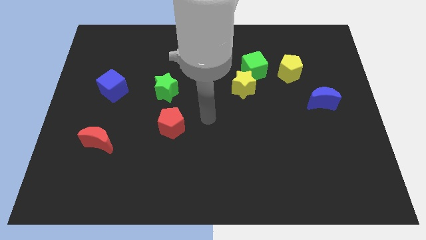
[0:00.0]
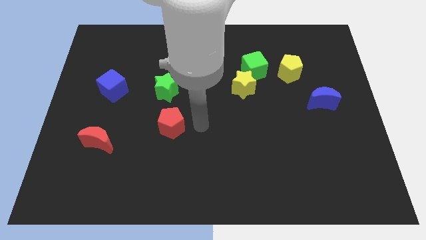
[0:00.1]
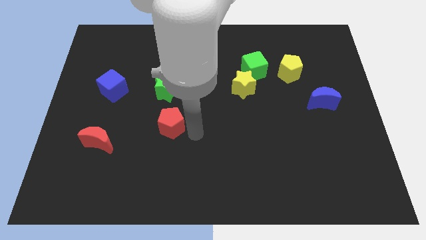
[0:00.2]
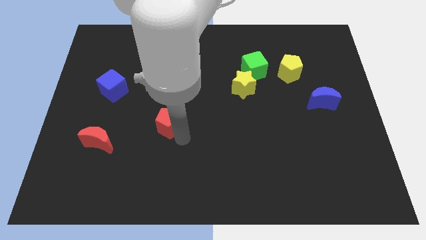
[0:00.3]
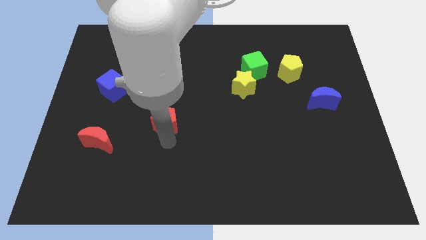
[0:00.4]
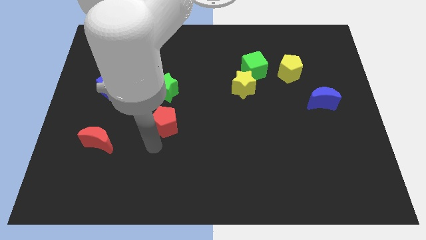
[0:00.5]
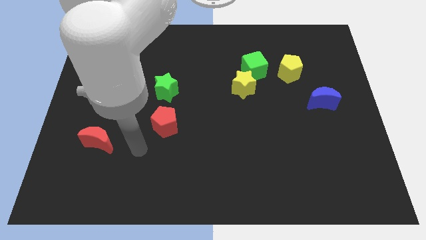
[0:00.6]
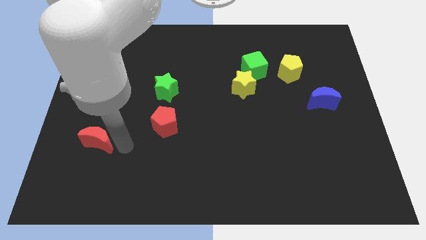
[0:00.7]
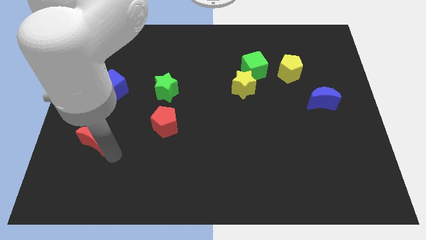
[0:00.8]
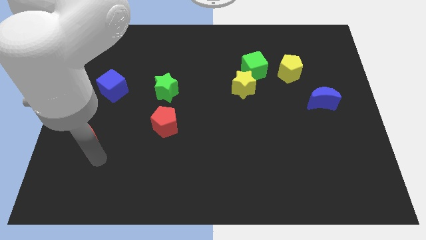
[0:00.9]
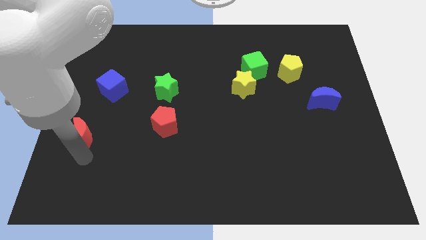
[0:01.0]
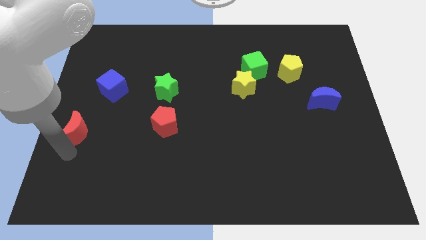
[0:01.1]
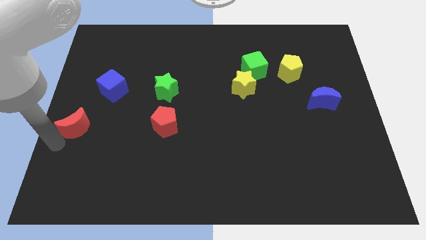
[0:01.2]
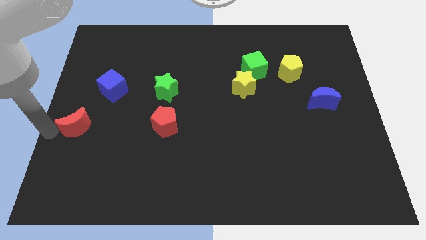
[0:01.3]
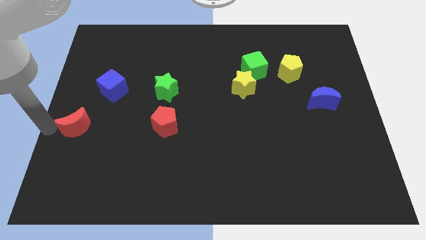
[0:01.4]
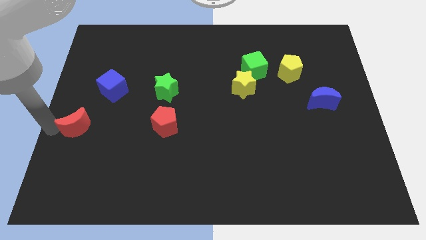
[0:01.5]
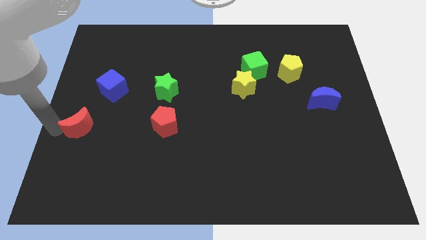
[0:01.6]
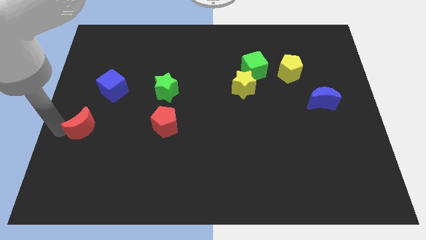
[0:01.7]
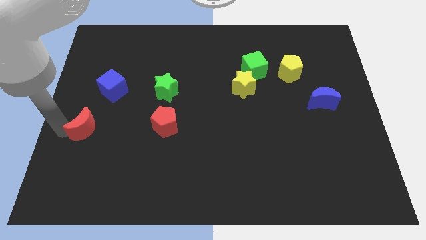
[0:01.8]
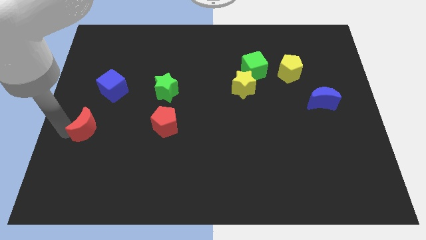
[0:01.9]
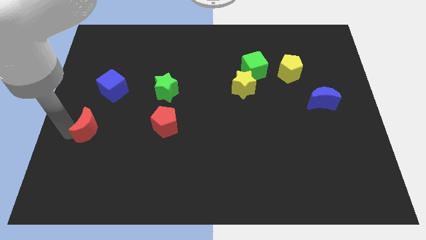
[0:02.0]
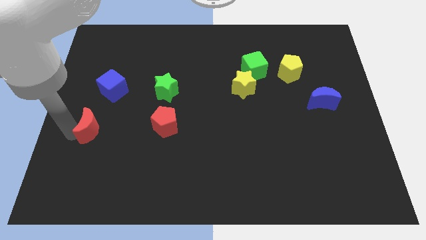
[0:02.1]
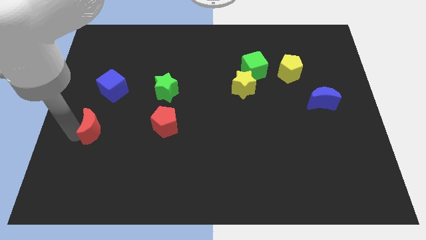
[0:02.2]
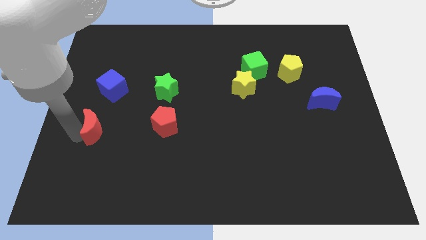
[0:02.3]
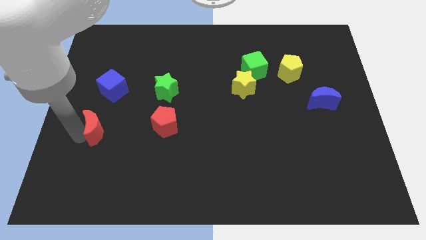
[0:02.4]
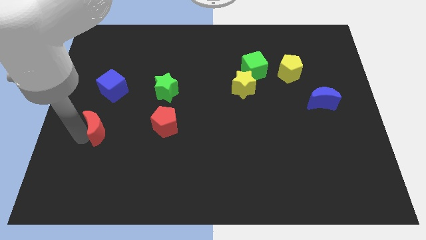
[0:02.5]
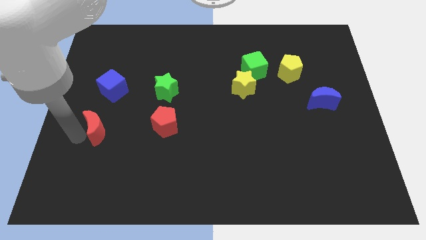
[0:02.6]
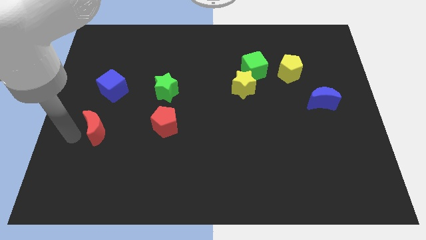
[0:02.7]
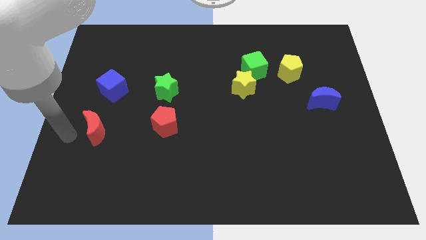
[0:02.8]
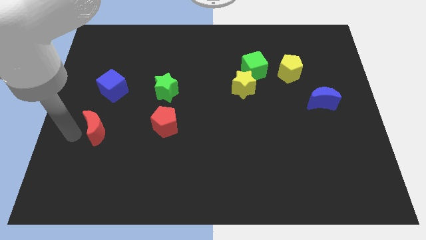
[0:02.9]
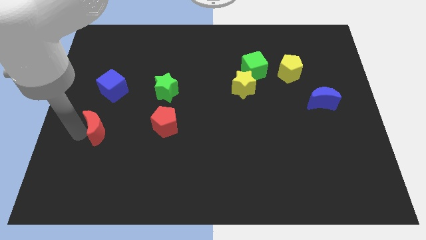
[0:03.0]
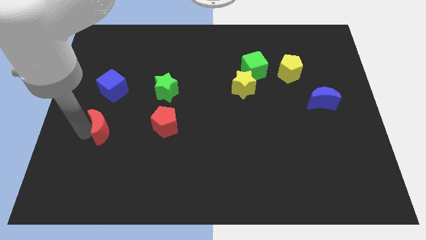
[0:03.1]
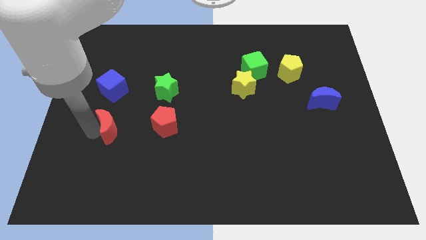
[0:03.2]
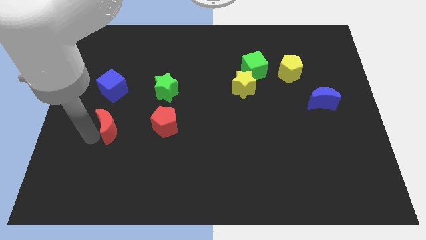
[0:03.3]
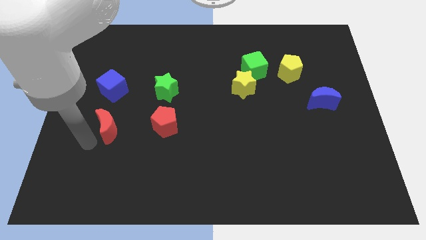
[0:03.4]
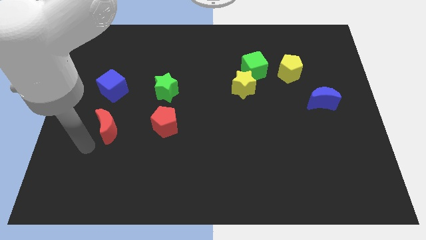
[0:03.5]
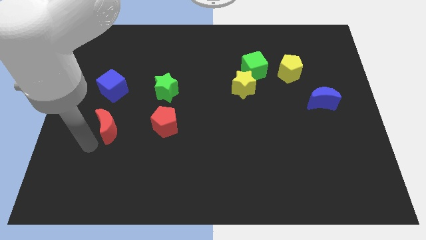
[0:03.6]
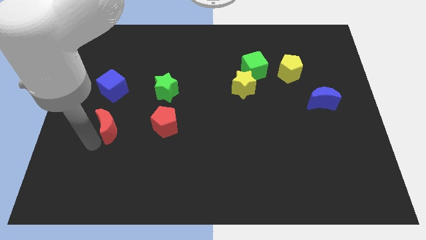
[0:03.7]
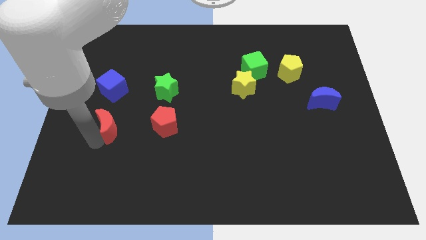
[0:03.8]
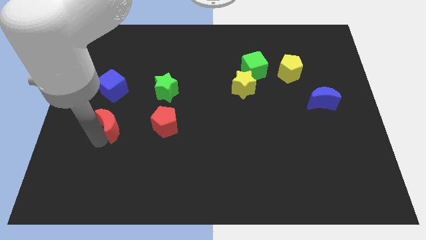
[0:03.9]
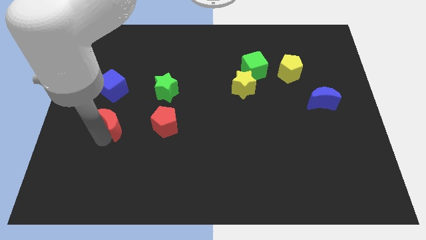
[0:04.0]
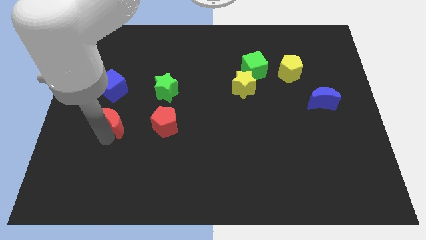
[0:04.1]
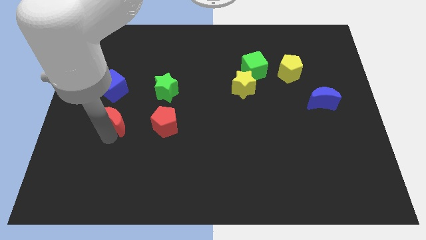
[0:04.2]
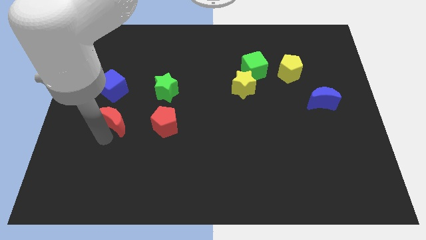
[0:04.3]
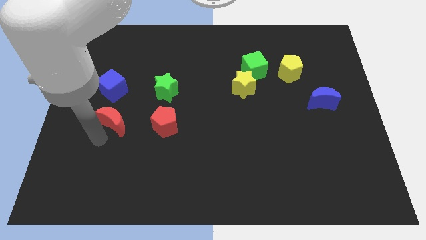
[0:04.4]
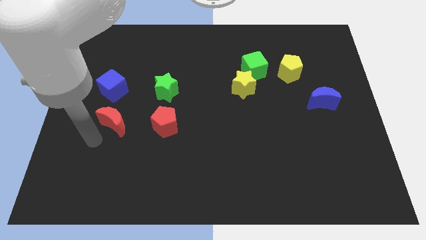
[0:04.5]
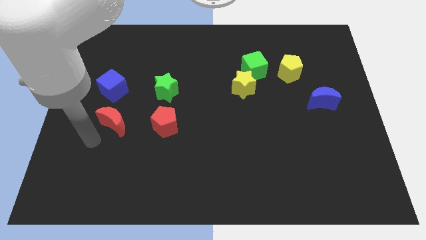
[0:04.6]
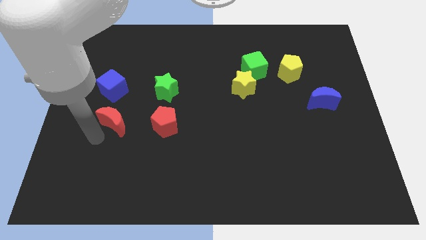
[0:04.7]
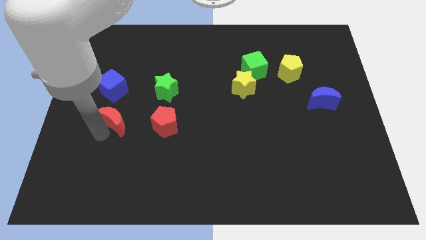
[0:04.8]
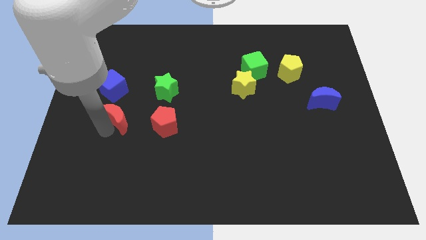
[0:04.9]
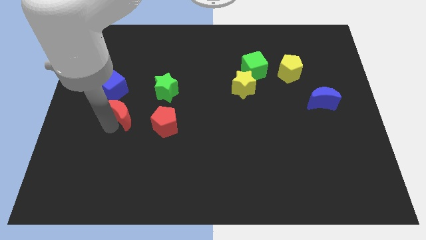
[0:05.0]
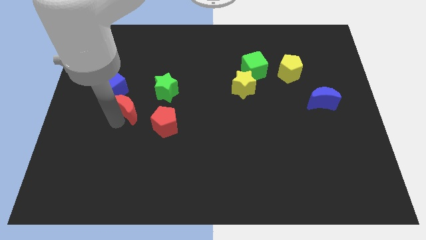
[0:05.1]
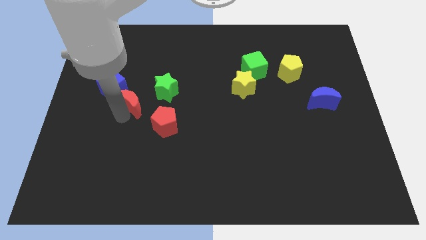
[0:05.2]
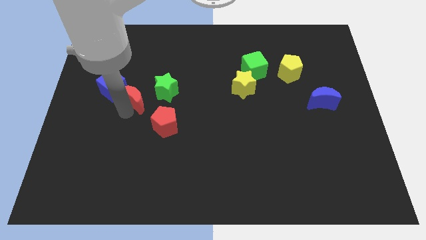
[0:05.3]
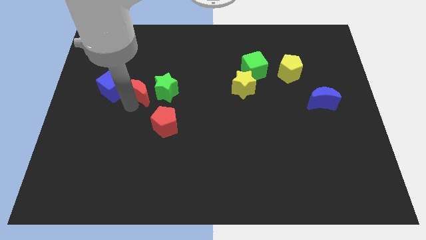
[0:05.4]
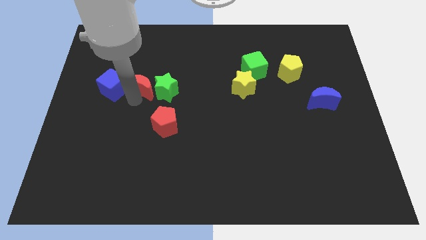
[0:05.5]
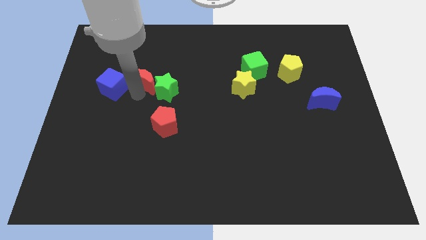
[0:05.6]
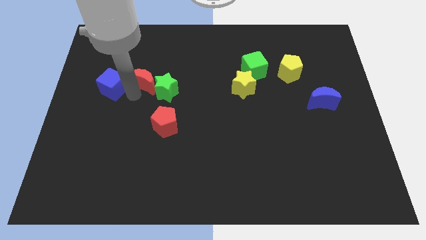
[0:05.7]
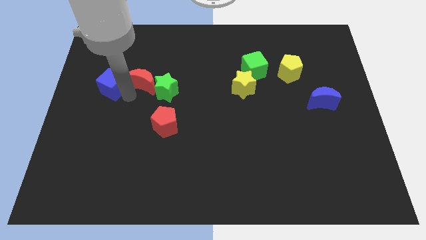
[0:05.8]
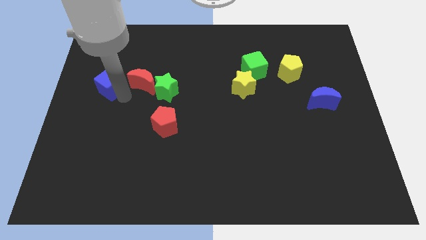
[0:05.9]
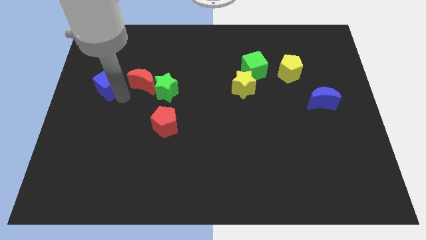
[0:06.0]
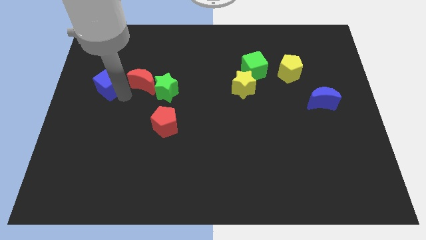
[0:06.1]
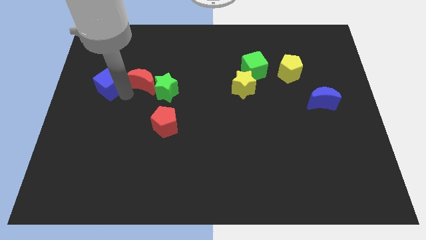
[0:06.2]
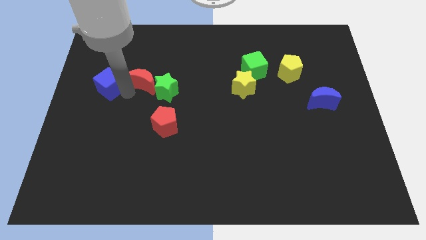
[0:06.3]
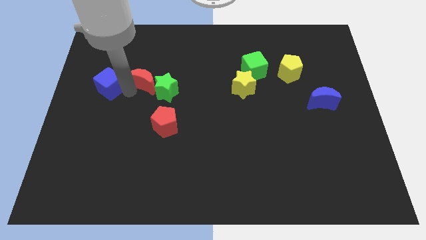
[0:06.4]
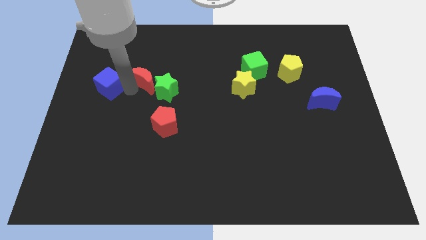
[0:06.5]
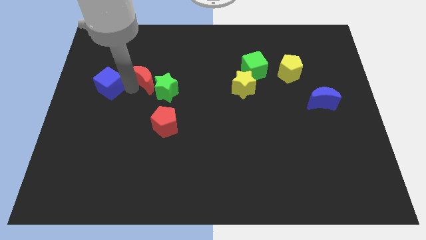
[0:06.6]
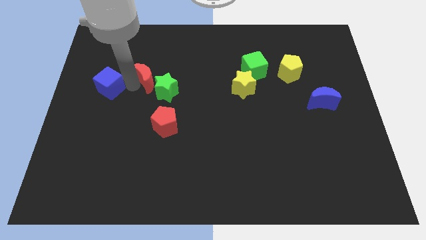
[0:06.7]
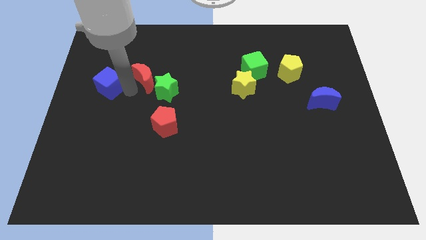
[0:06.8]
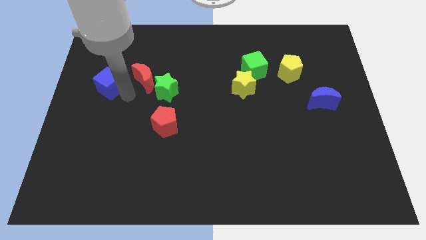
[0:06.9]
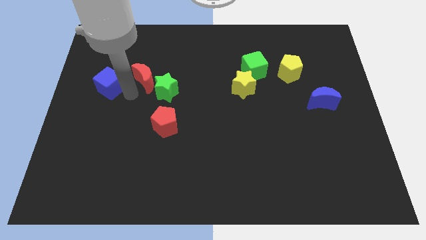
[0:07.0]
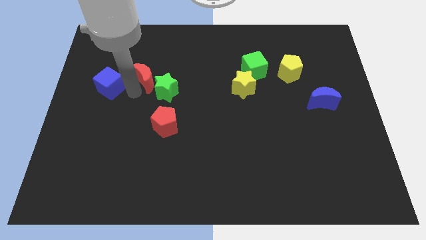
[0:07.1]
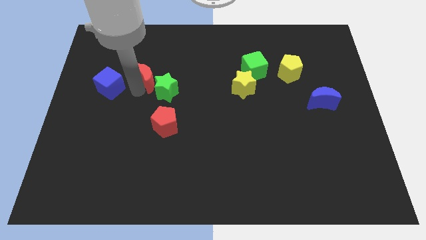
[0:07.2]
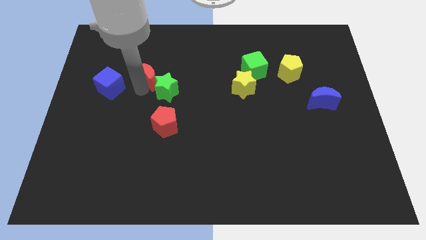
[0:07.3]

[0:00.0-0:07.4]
put the red moon to the top of the green star

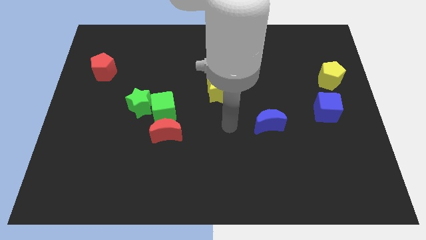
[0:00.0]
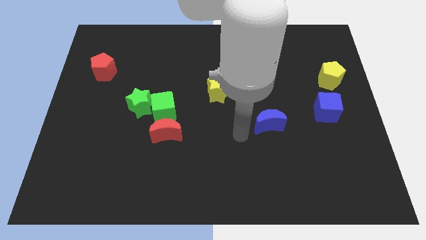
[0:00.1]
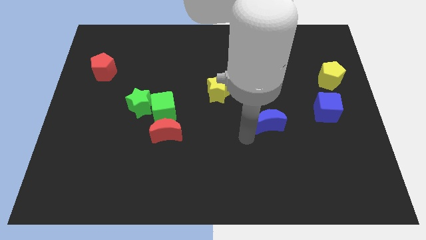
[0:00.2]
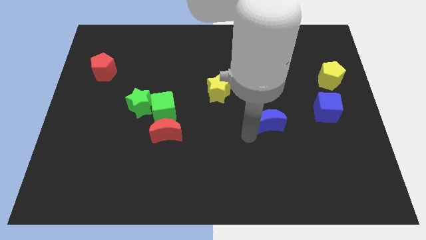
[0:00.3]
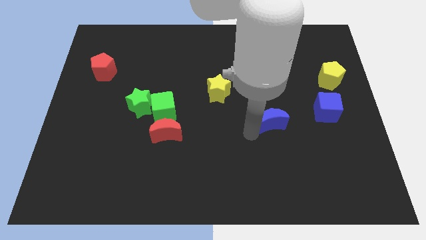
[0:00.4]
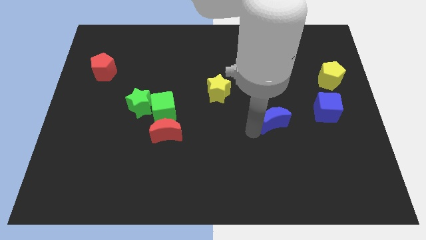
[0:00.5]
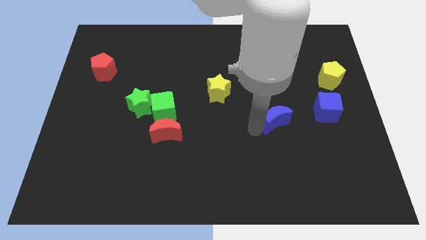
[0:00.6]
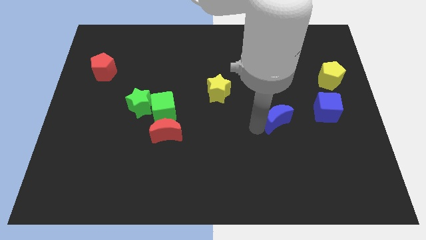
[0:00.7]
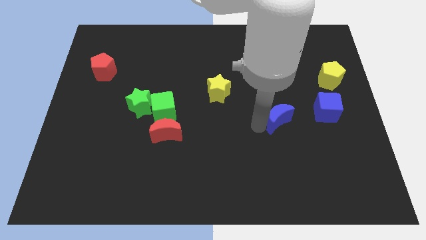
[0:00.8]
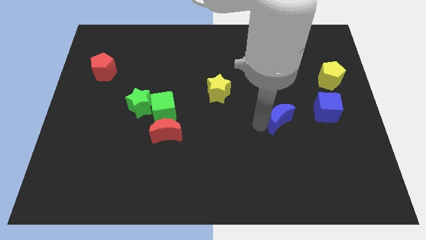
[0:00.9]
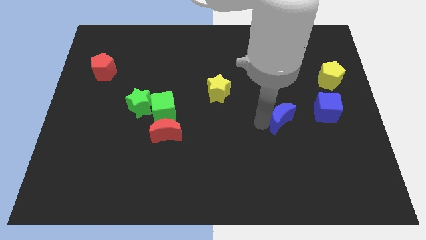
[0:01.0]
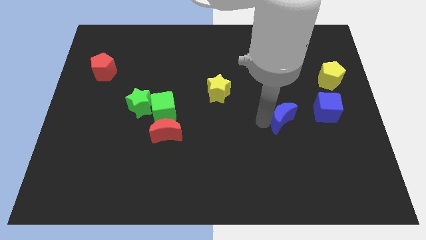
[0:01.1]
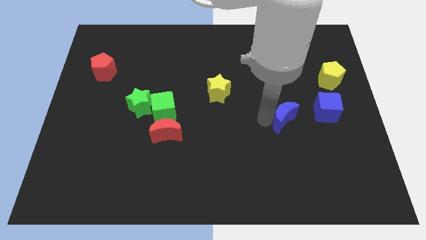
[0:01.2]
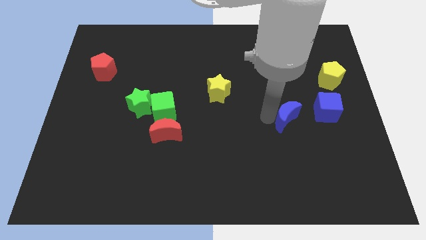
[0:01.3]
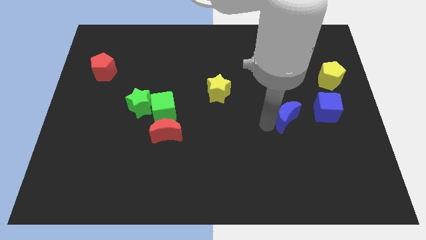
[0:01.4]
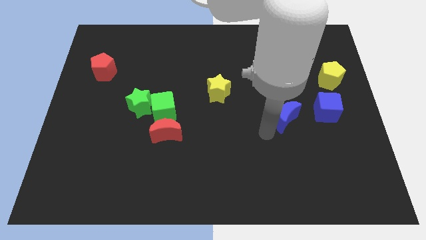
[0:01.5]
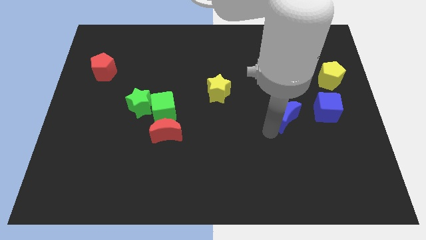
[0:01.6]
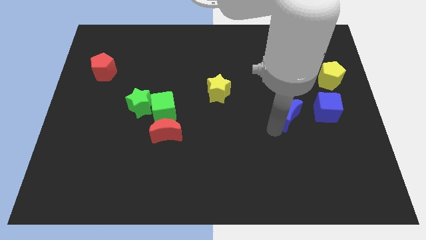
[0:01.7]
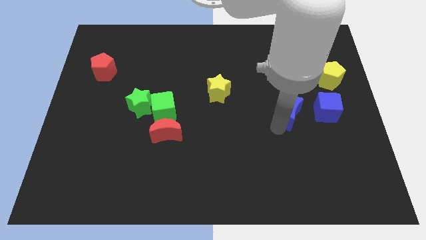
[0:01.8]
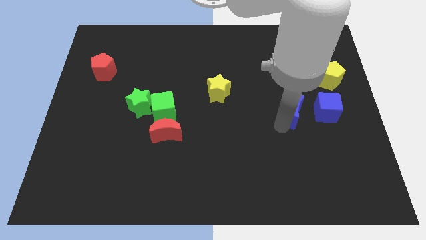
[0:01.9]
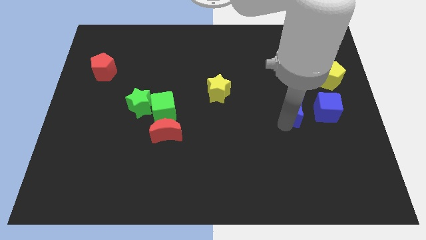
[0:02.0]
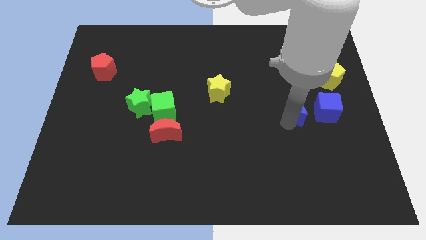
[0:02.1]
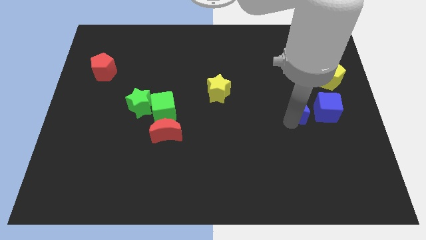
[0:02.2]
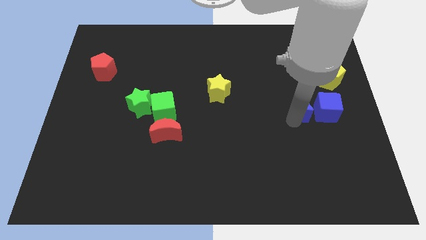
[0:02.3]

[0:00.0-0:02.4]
move the blue moon diagonally down and to the left of the yellow pentagon
